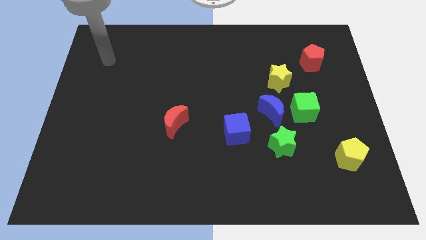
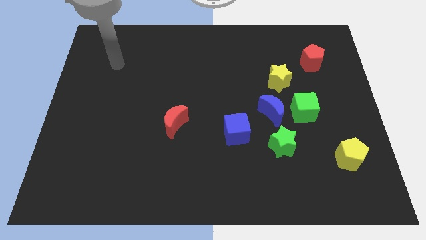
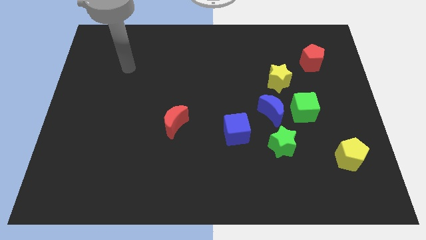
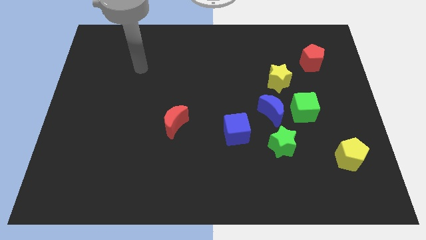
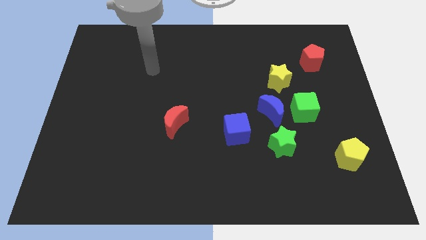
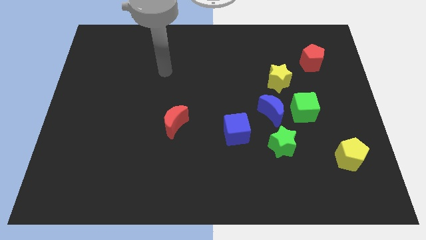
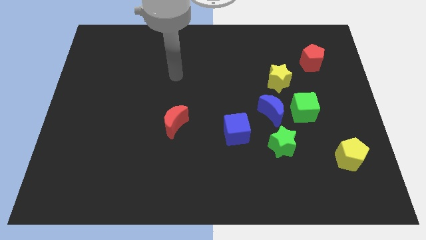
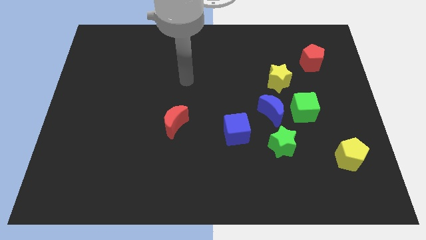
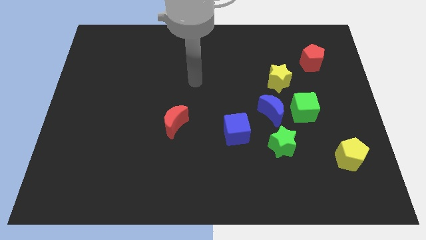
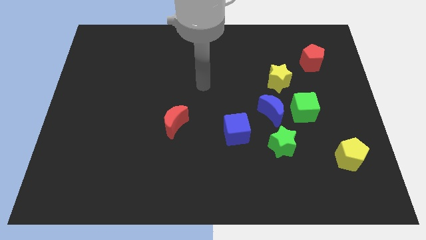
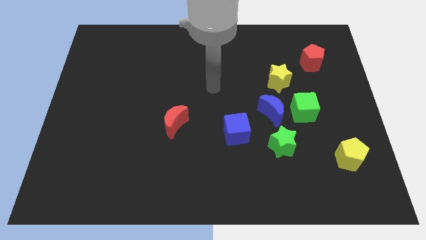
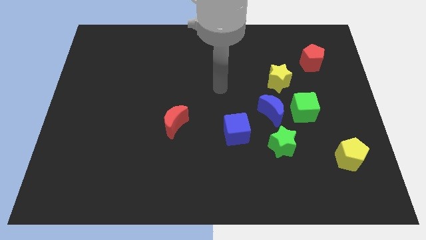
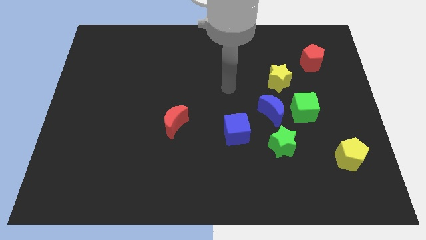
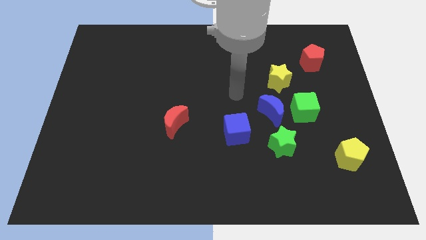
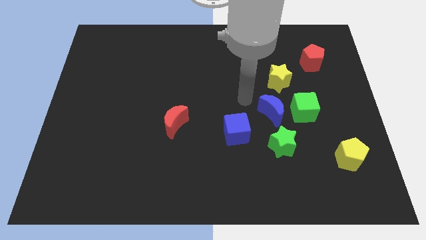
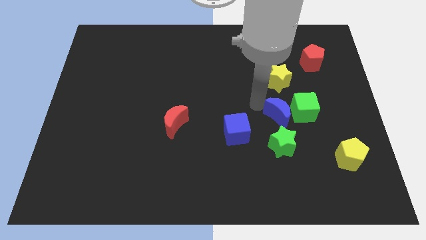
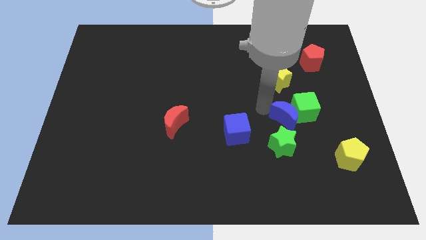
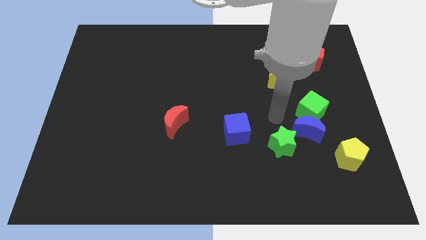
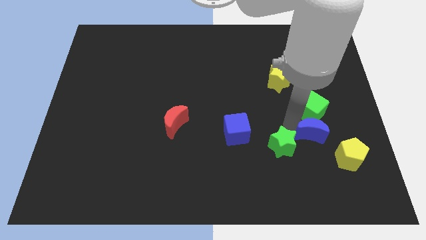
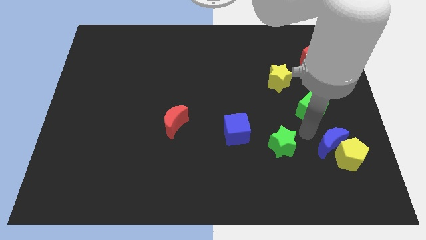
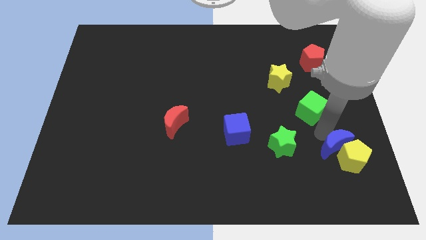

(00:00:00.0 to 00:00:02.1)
pull the green cube apart from the blue moon

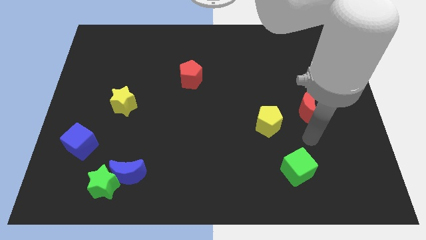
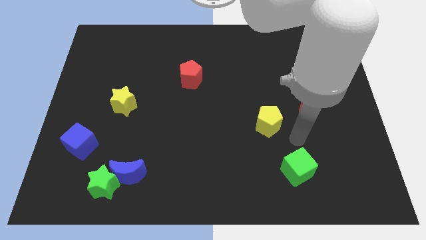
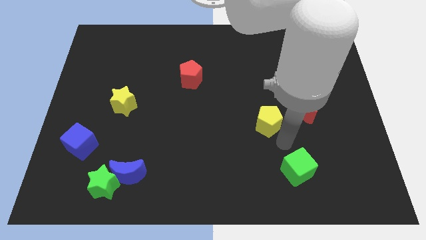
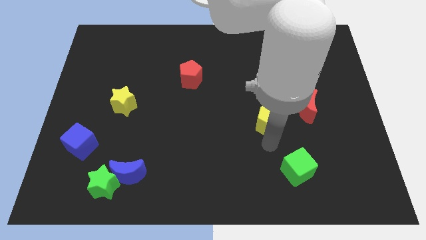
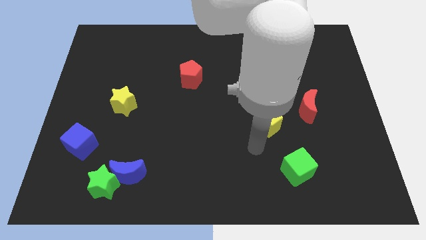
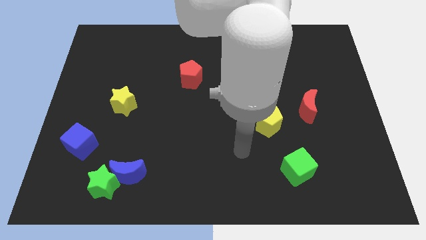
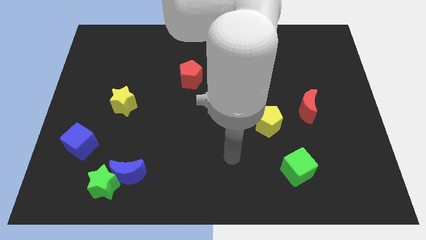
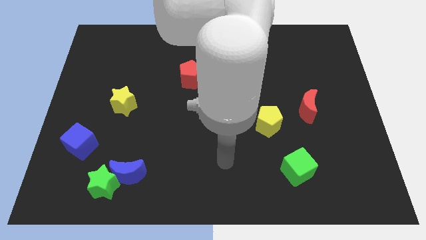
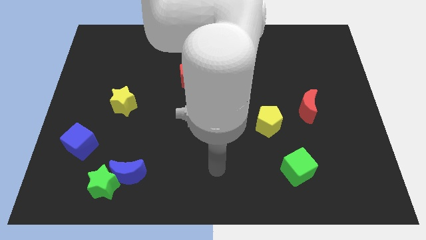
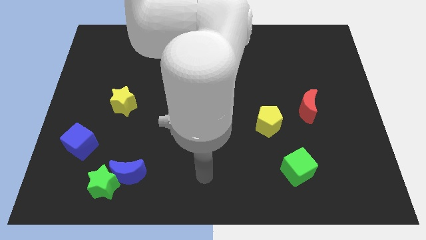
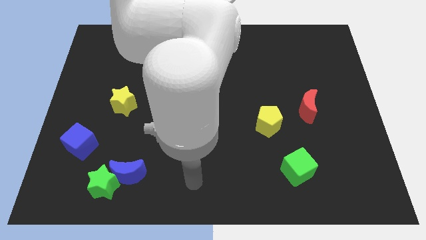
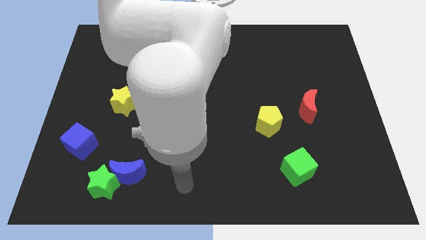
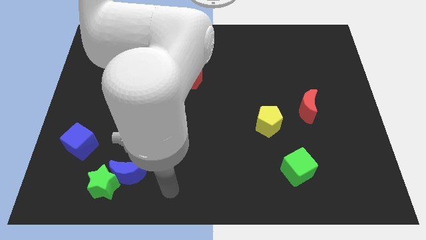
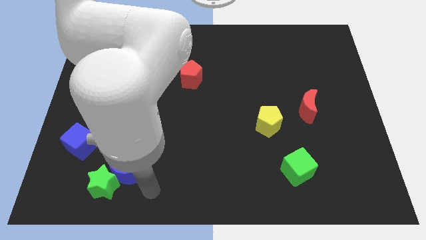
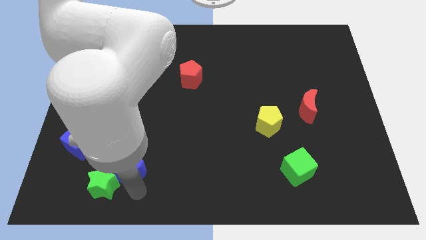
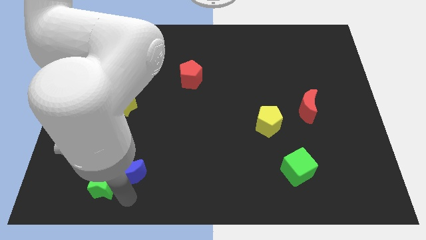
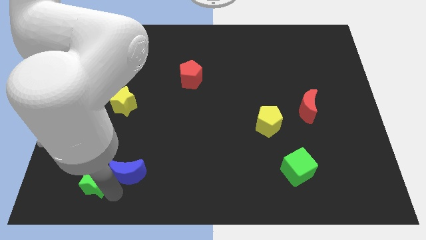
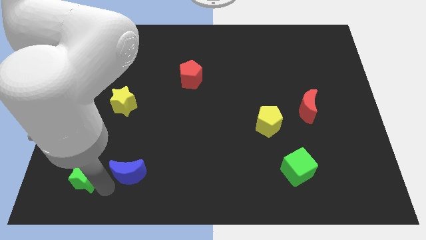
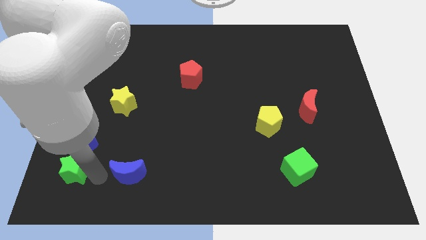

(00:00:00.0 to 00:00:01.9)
pull the blue moon apart from the green star

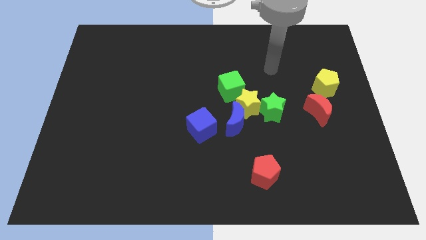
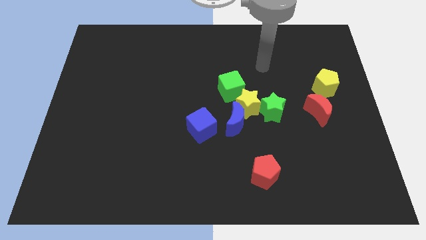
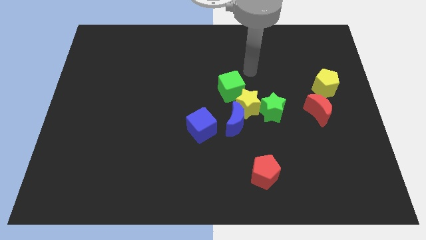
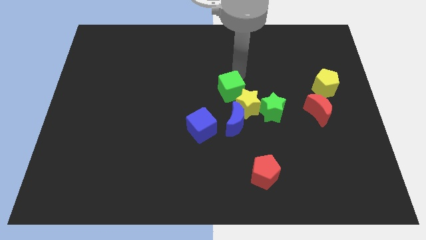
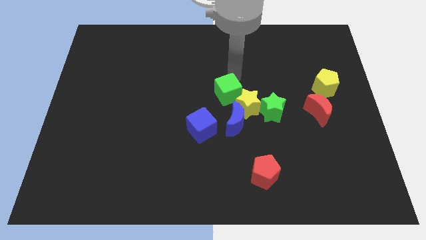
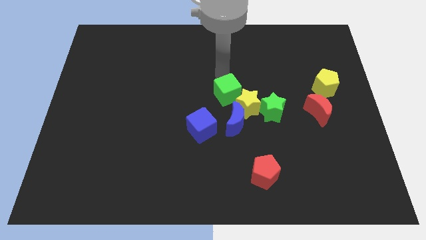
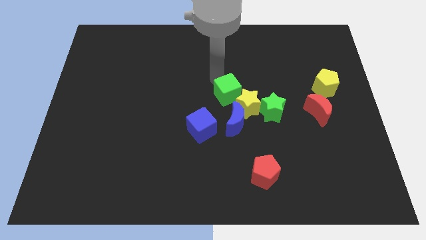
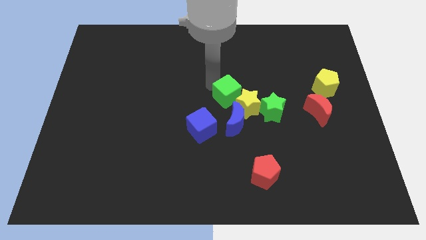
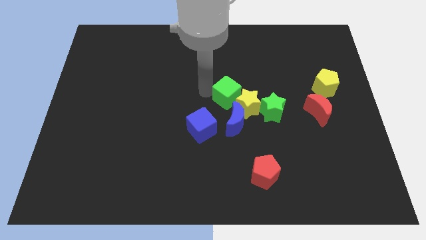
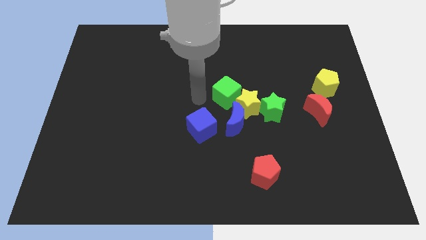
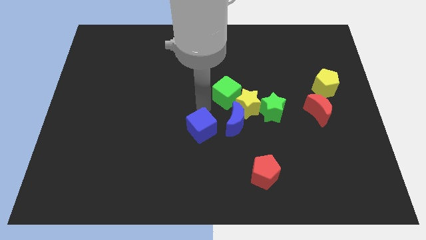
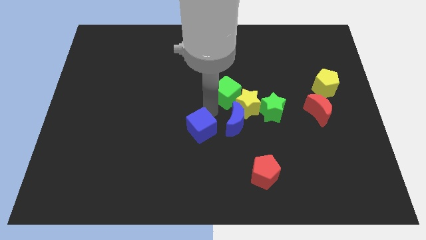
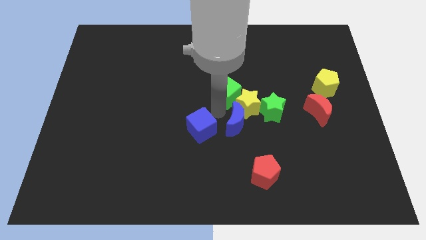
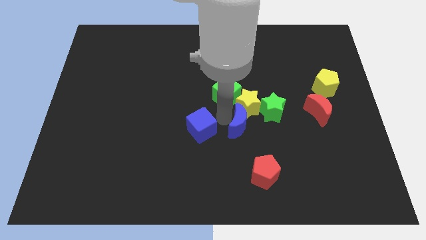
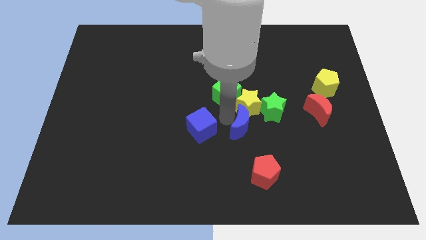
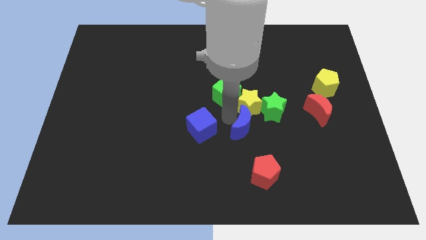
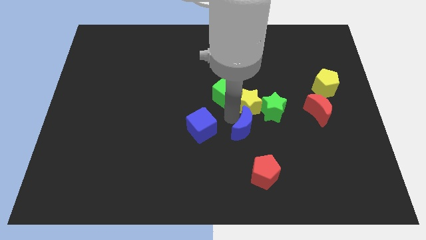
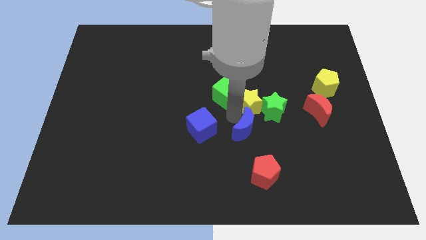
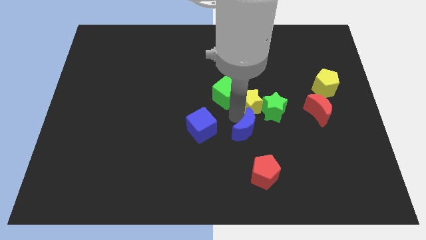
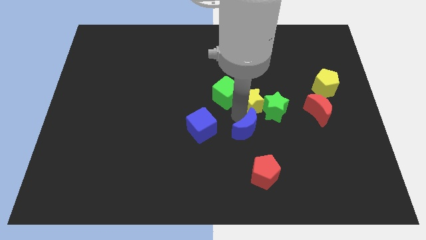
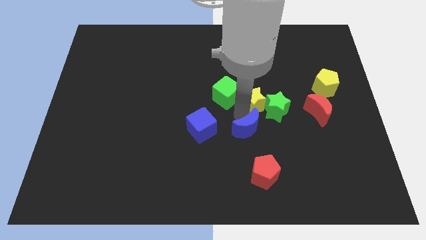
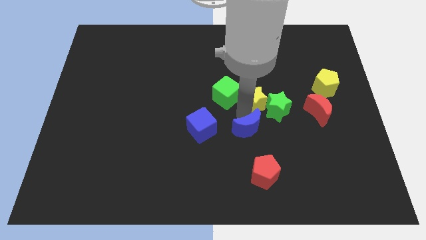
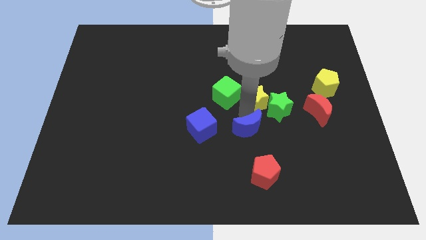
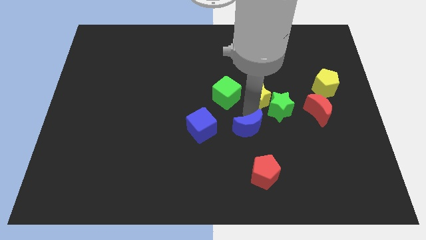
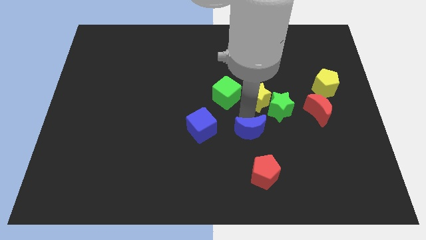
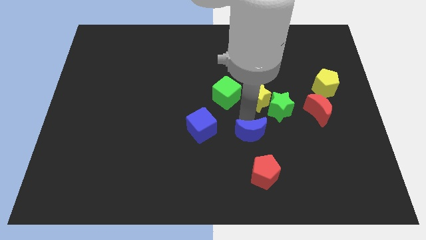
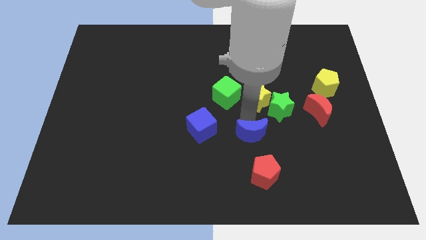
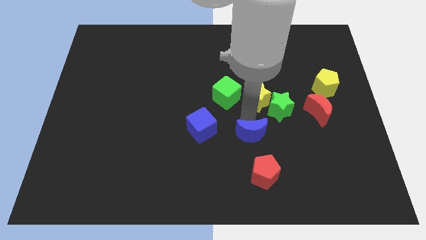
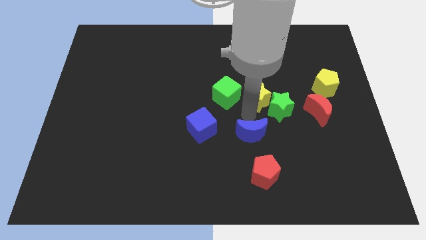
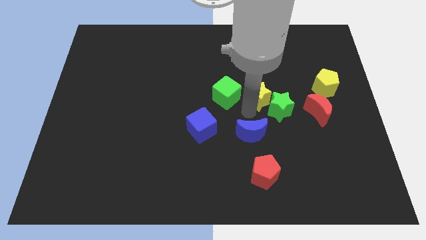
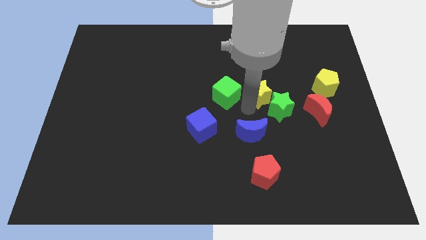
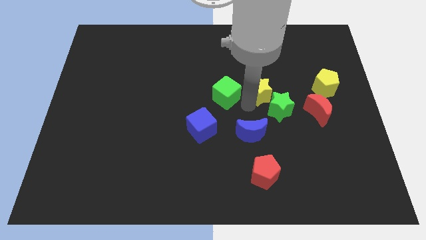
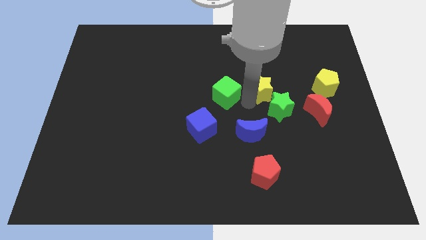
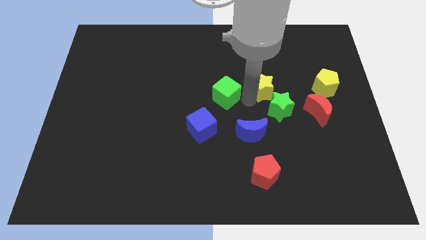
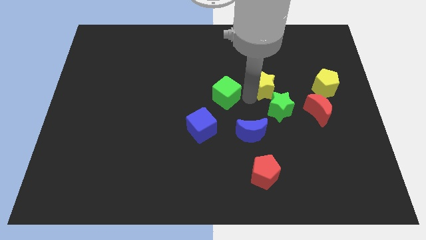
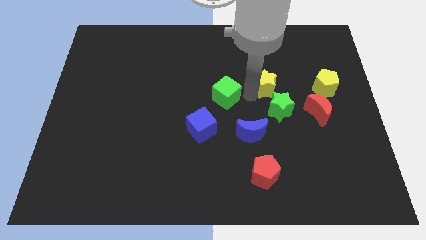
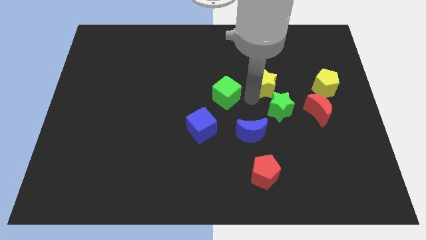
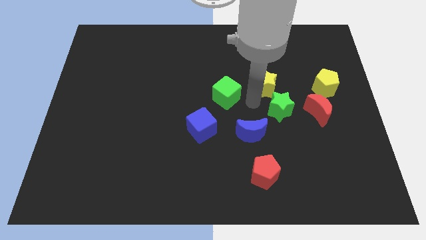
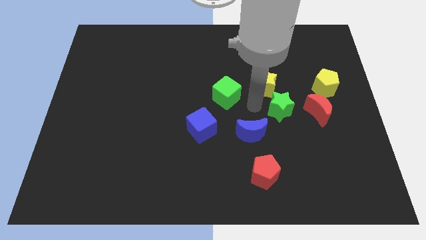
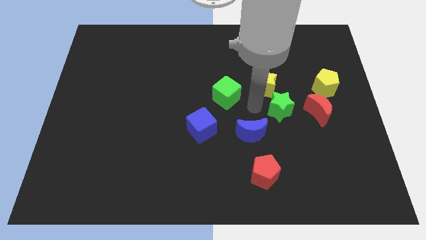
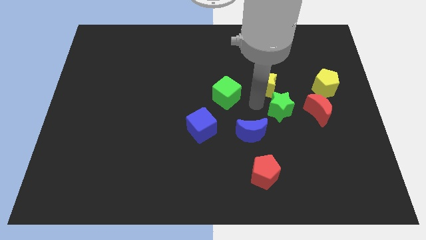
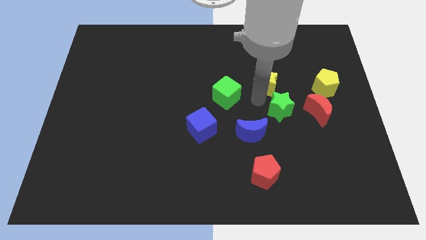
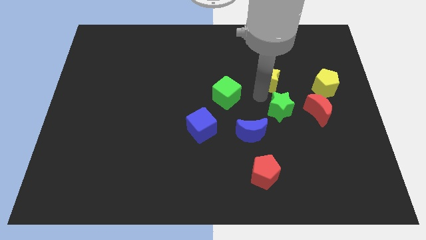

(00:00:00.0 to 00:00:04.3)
separate the yellow star from the group

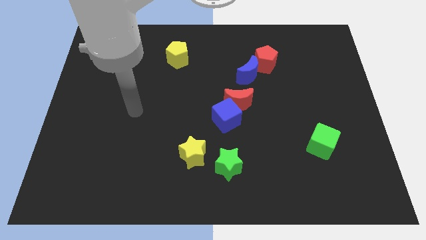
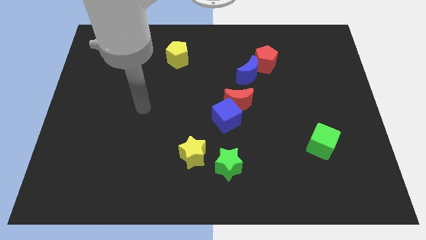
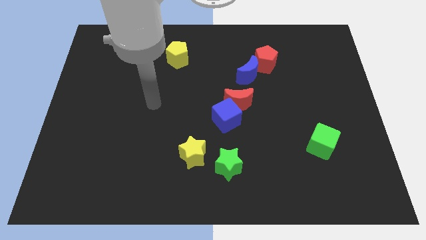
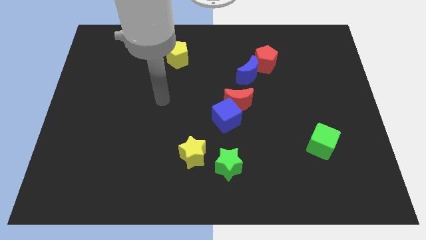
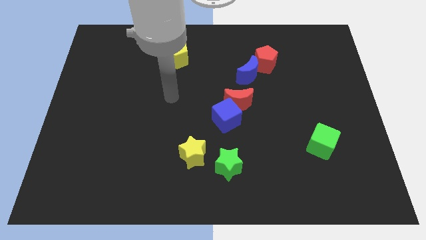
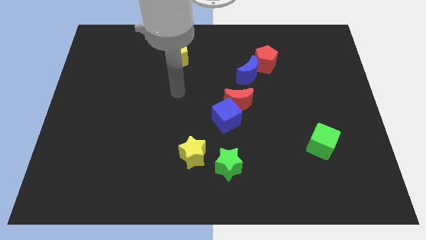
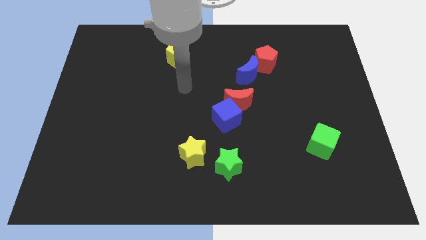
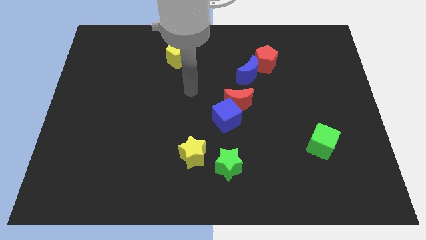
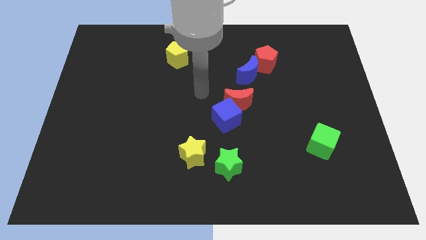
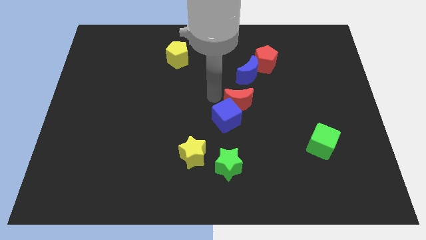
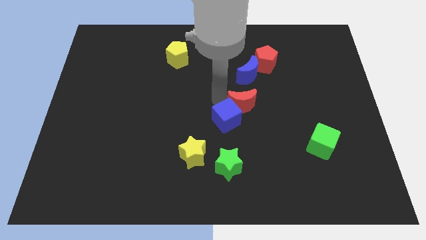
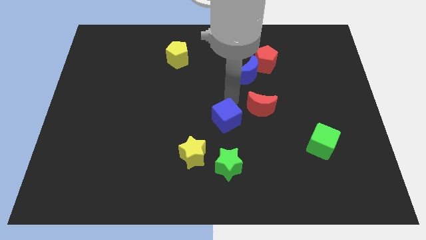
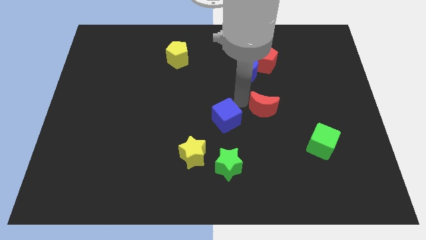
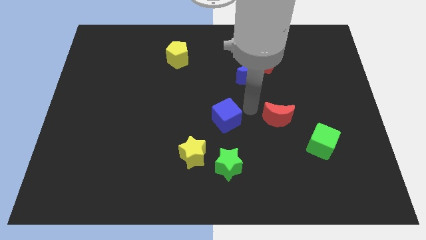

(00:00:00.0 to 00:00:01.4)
pull the blue cube apart from the red moon
